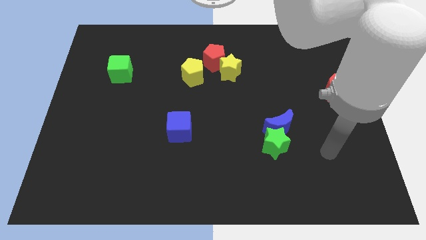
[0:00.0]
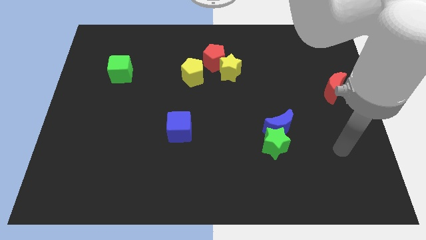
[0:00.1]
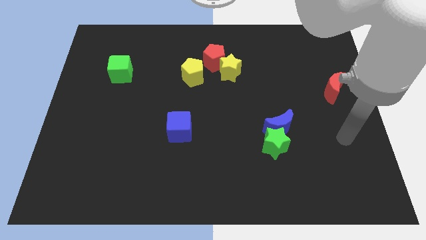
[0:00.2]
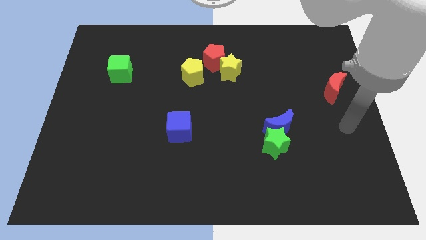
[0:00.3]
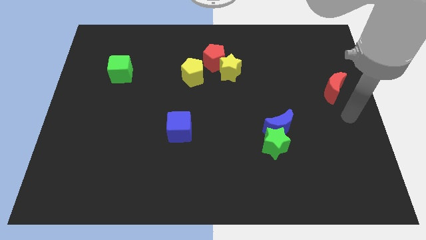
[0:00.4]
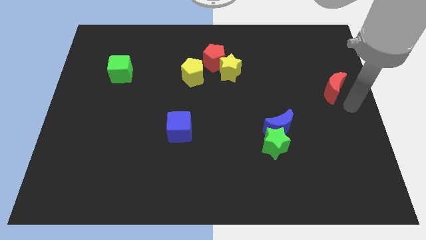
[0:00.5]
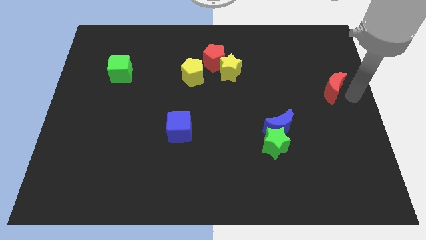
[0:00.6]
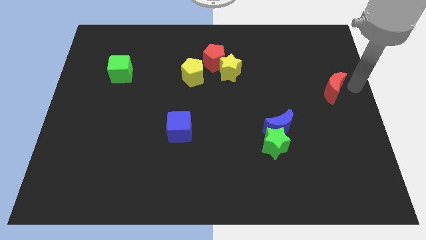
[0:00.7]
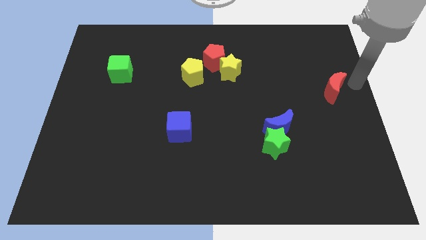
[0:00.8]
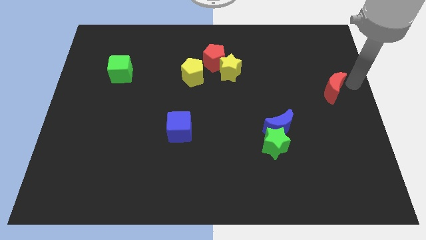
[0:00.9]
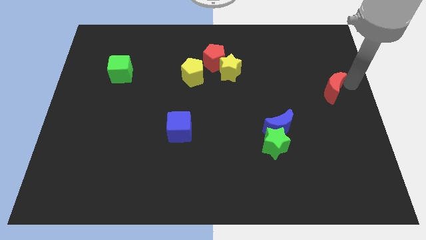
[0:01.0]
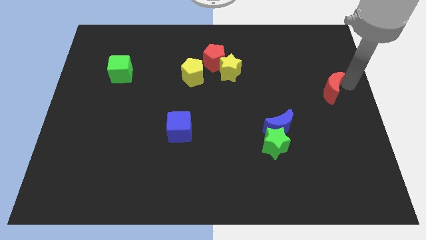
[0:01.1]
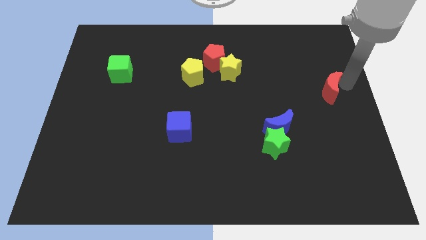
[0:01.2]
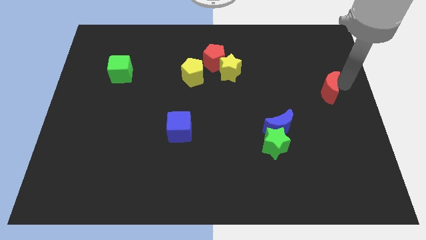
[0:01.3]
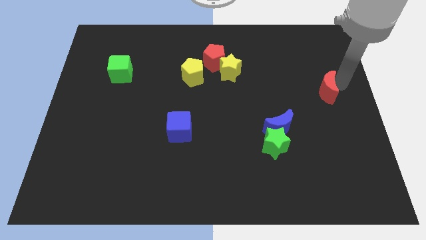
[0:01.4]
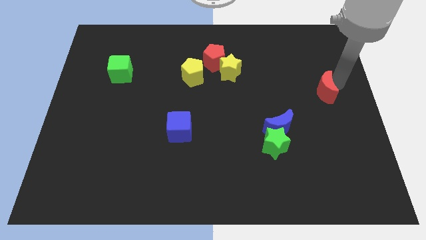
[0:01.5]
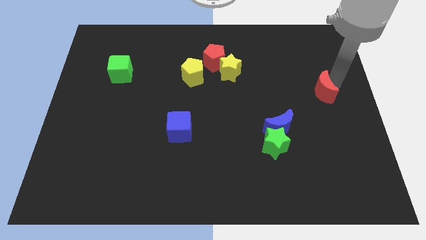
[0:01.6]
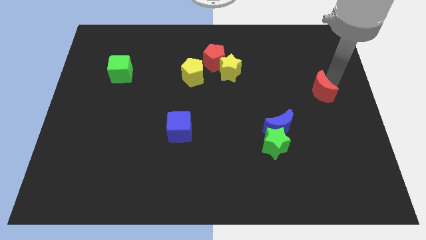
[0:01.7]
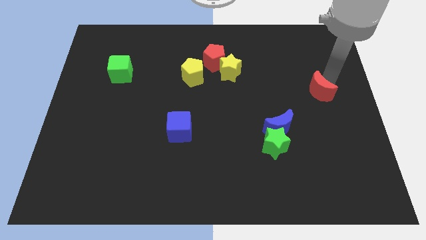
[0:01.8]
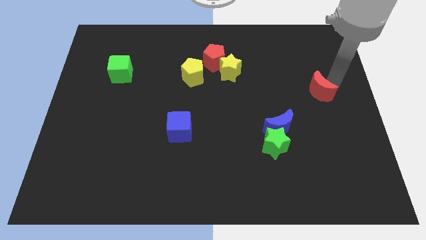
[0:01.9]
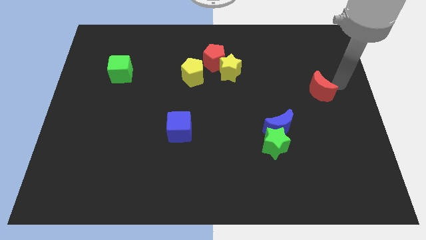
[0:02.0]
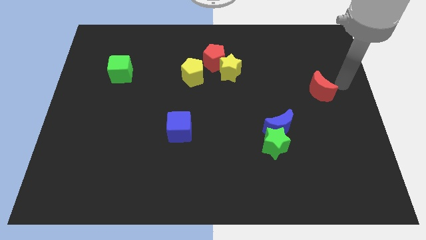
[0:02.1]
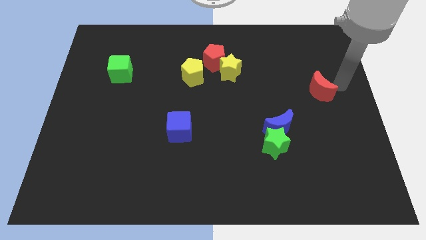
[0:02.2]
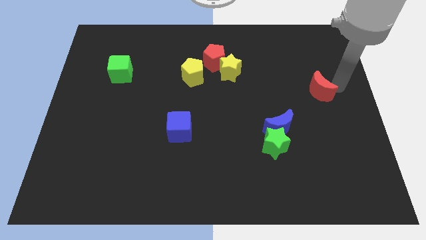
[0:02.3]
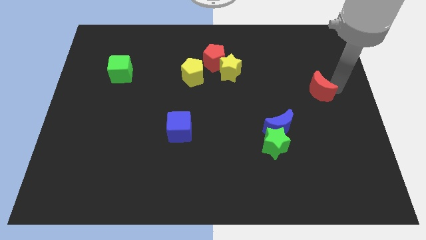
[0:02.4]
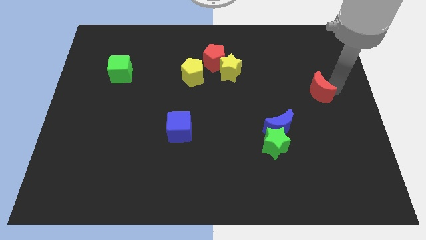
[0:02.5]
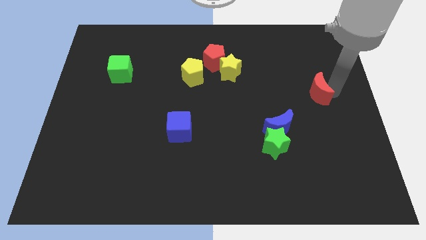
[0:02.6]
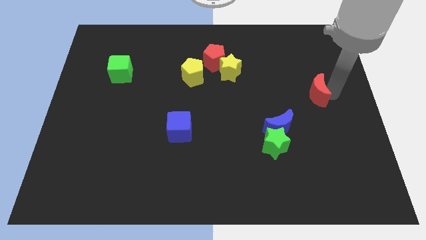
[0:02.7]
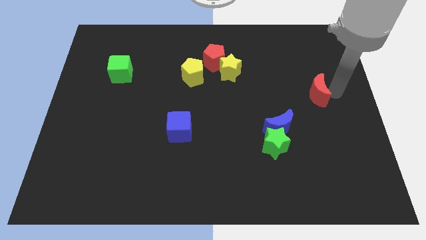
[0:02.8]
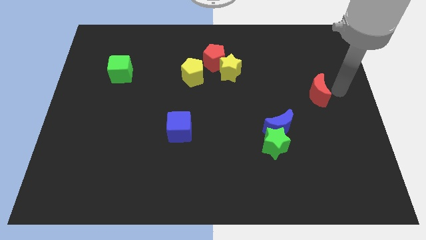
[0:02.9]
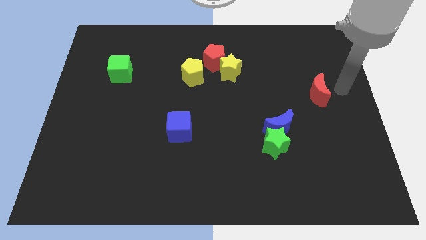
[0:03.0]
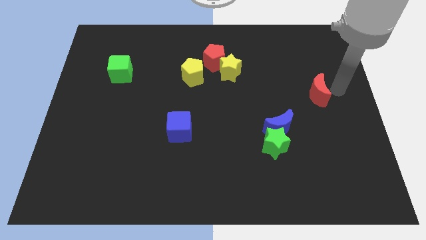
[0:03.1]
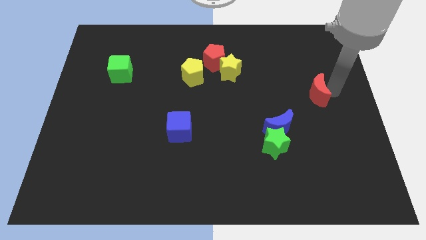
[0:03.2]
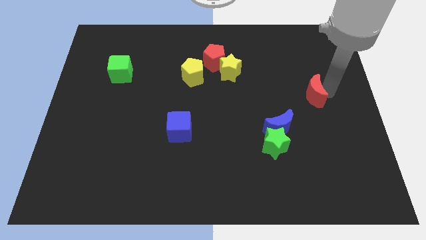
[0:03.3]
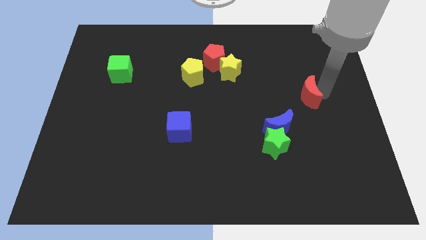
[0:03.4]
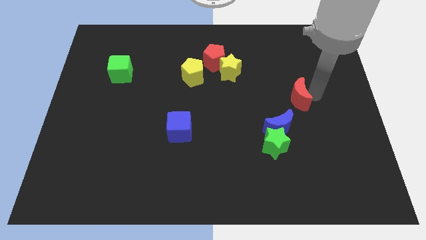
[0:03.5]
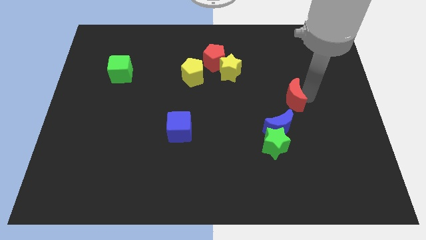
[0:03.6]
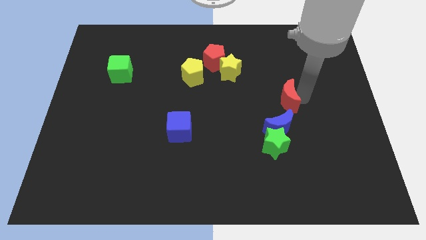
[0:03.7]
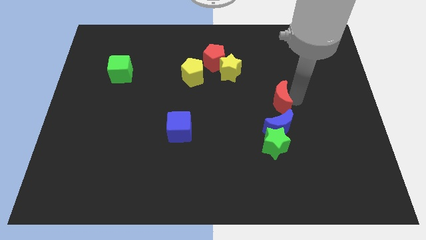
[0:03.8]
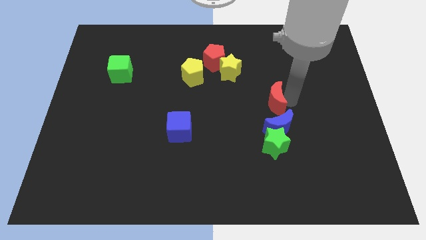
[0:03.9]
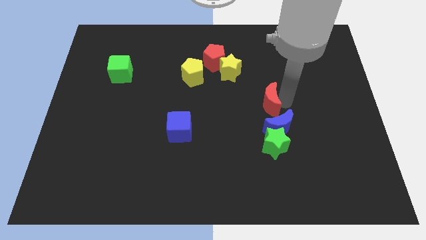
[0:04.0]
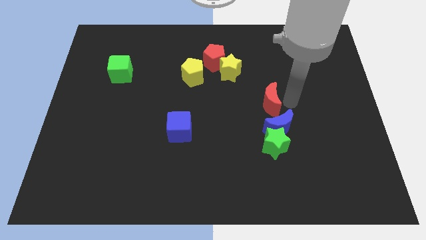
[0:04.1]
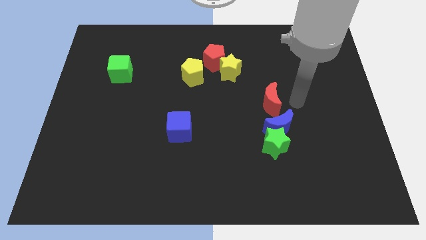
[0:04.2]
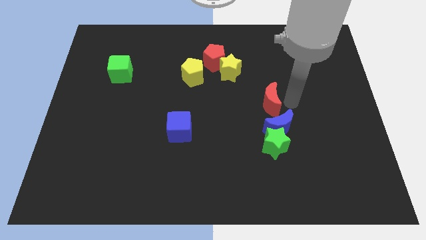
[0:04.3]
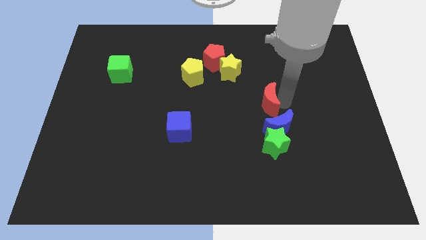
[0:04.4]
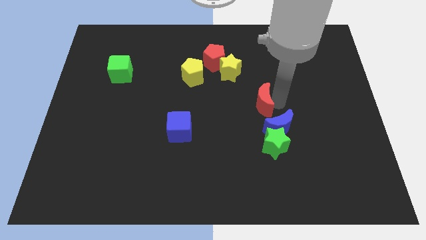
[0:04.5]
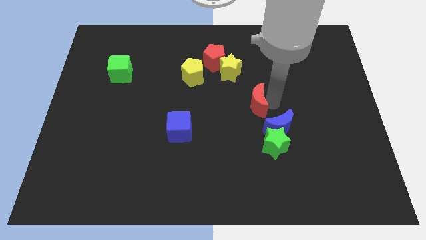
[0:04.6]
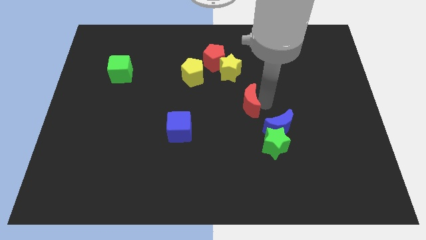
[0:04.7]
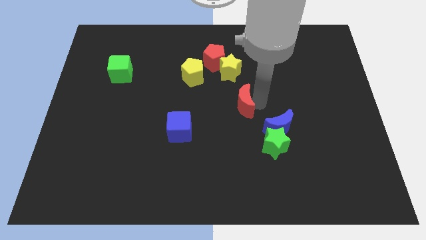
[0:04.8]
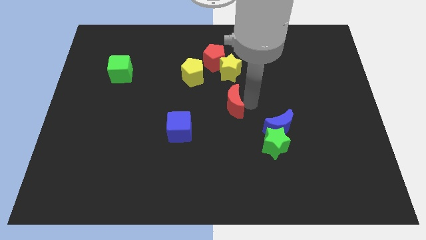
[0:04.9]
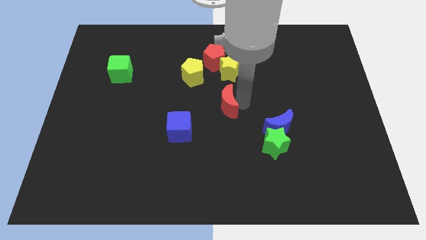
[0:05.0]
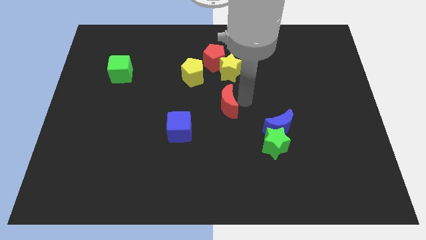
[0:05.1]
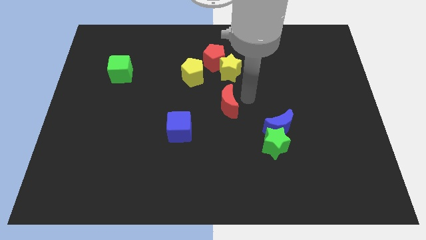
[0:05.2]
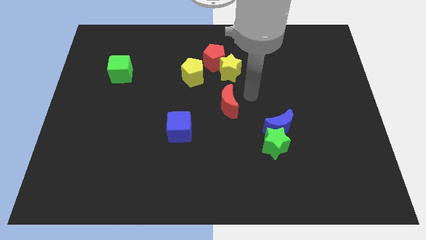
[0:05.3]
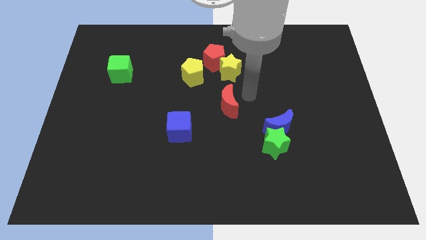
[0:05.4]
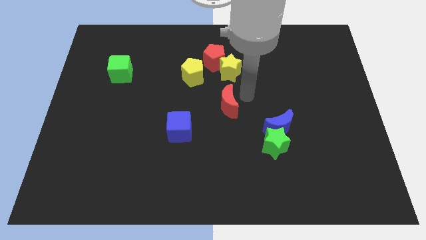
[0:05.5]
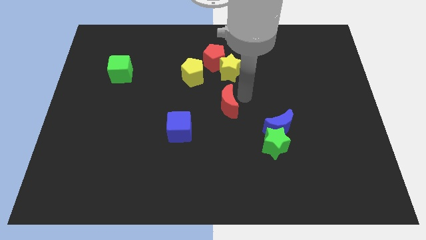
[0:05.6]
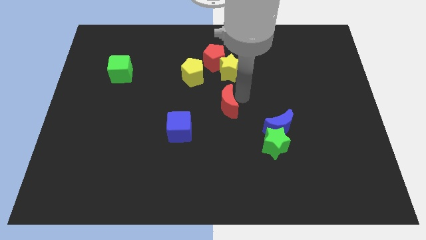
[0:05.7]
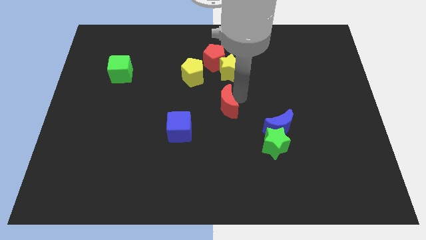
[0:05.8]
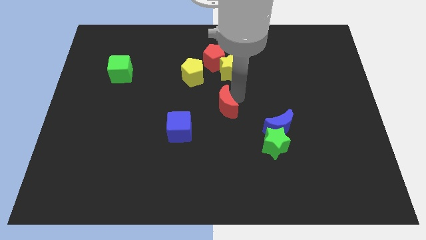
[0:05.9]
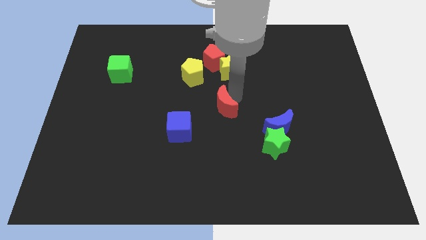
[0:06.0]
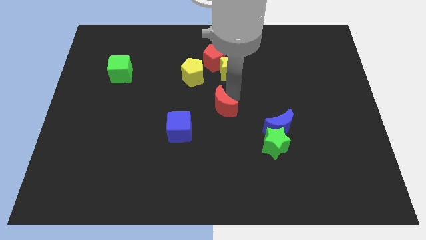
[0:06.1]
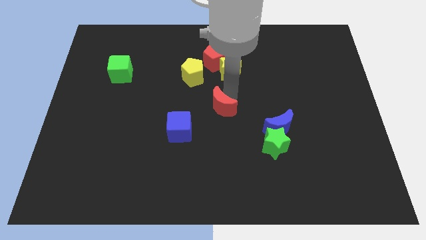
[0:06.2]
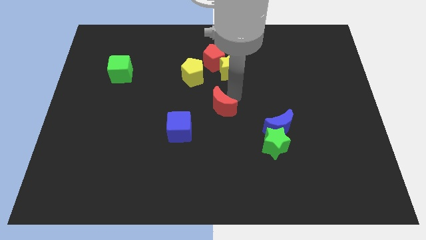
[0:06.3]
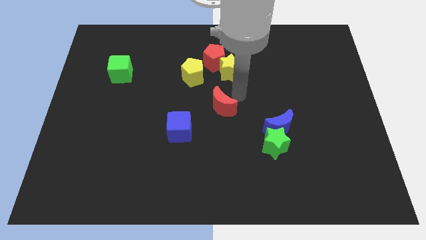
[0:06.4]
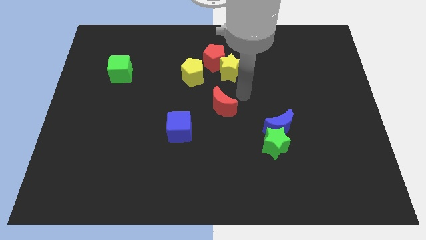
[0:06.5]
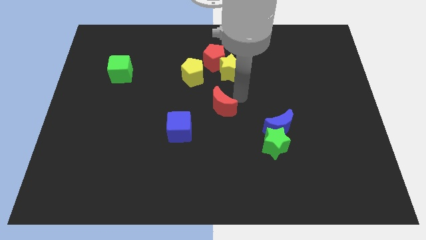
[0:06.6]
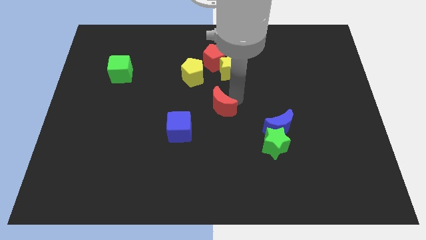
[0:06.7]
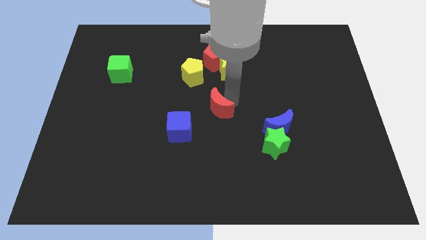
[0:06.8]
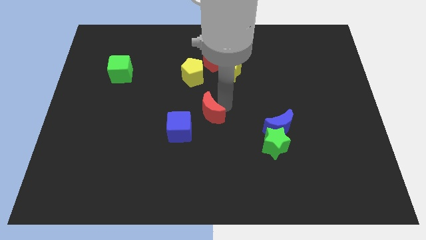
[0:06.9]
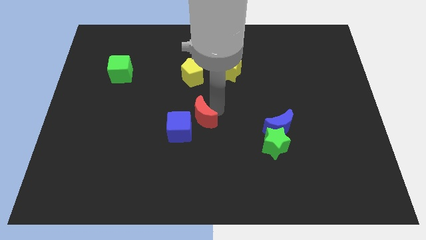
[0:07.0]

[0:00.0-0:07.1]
put the red moon close to the blue cube

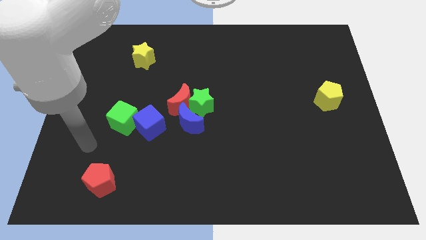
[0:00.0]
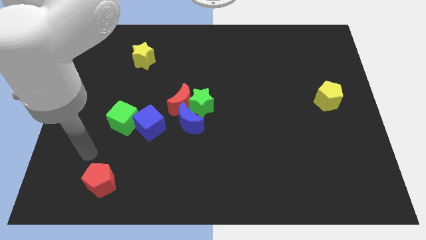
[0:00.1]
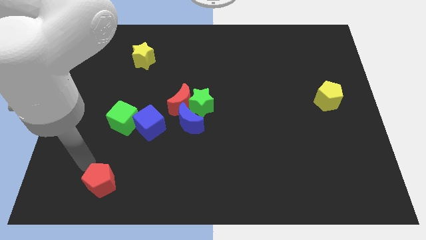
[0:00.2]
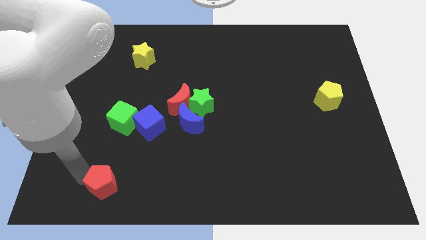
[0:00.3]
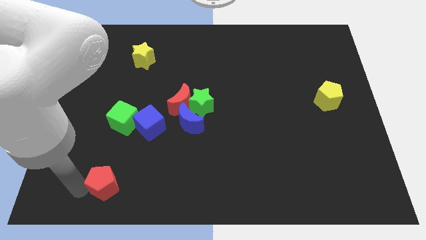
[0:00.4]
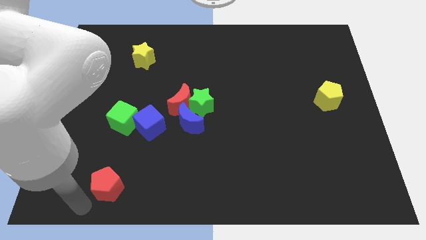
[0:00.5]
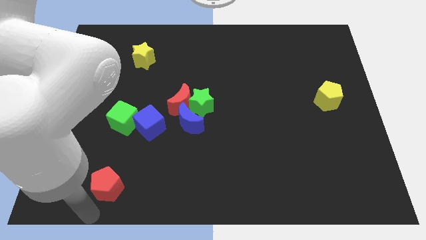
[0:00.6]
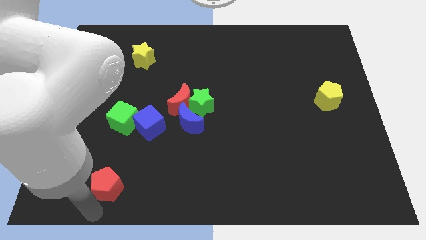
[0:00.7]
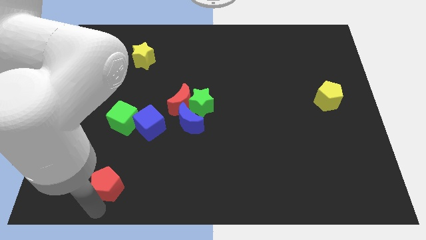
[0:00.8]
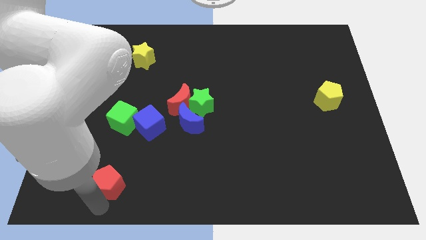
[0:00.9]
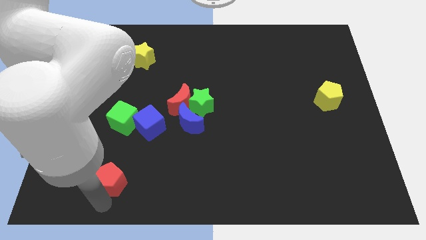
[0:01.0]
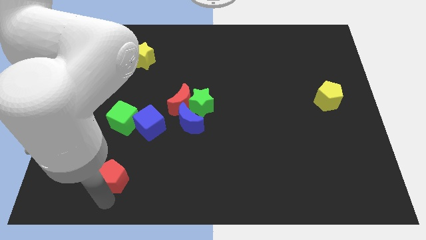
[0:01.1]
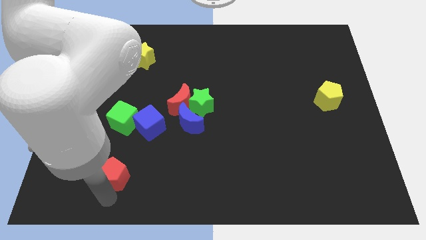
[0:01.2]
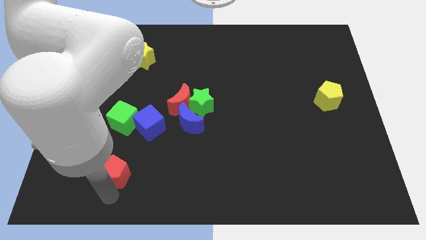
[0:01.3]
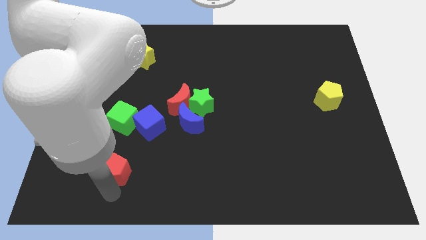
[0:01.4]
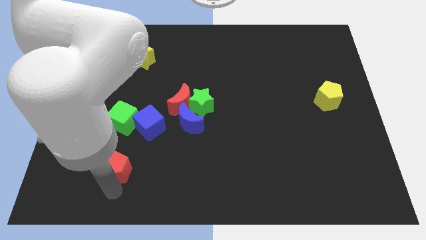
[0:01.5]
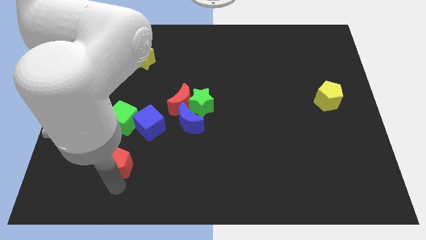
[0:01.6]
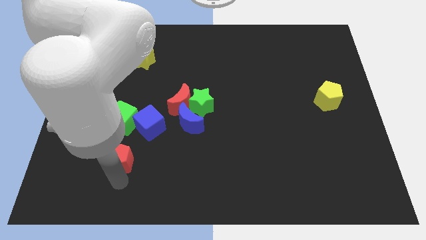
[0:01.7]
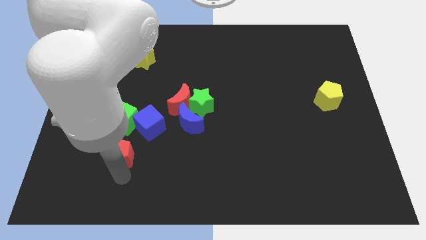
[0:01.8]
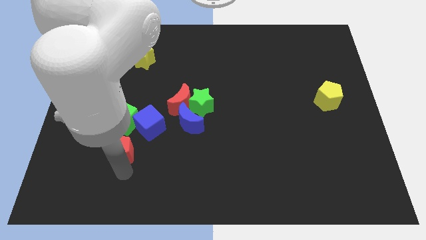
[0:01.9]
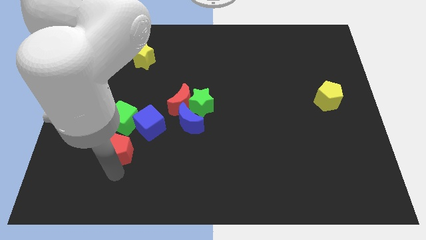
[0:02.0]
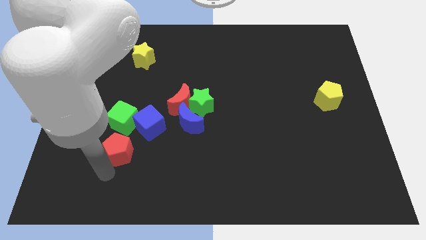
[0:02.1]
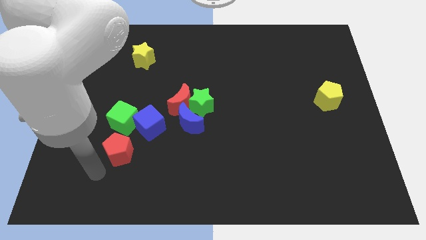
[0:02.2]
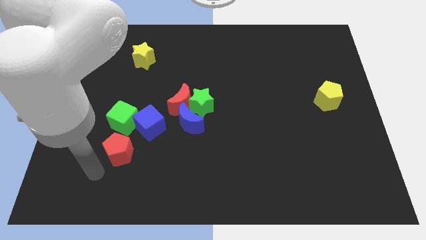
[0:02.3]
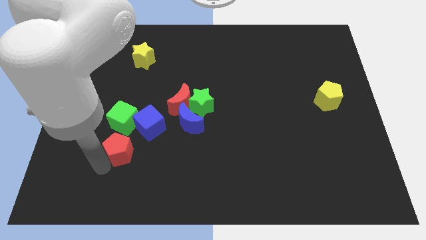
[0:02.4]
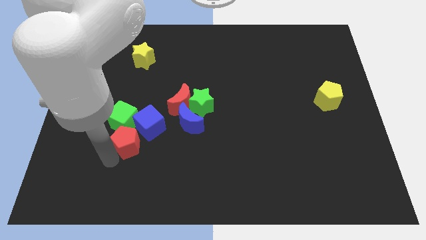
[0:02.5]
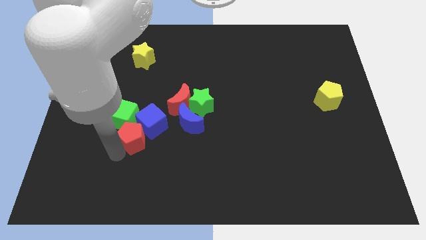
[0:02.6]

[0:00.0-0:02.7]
slide the red pentagon towards the blue cube
